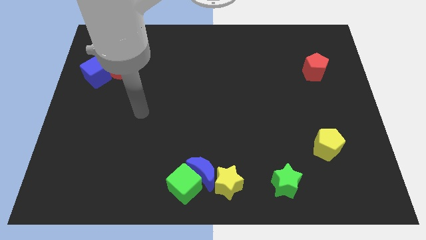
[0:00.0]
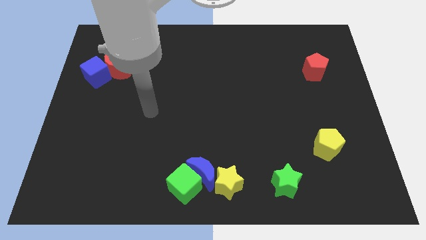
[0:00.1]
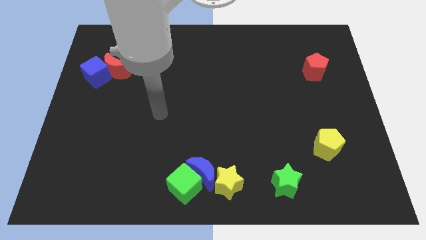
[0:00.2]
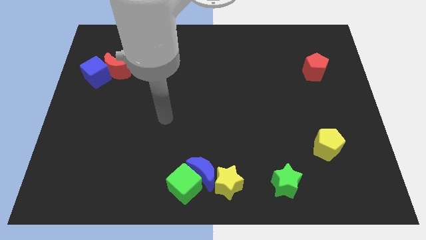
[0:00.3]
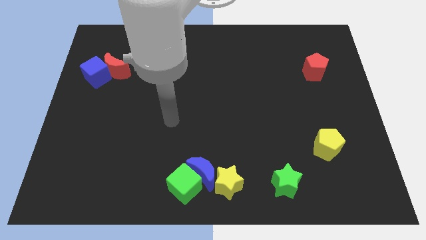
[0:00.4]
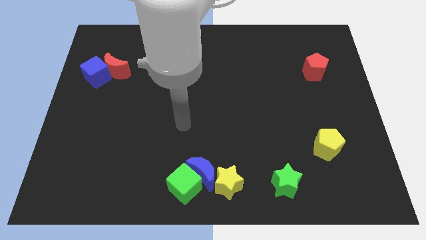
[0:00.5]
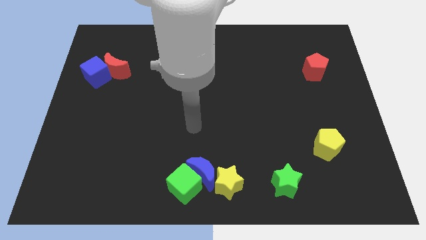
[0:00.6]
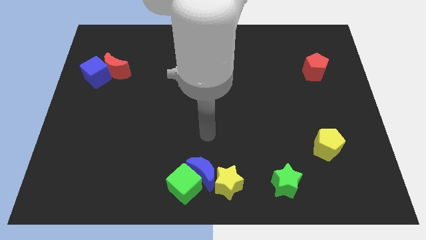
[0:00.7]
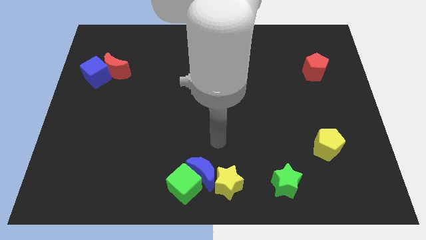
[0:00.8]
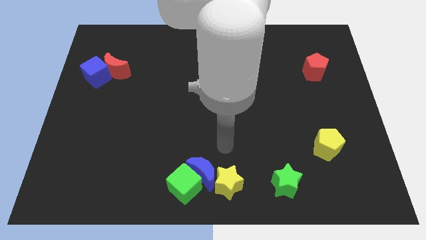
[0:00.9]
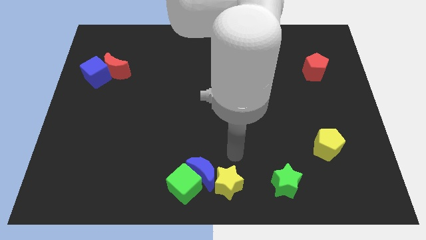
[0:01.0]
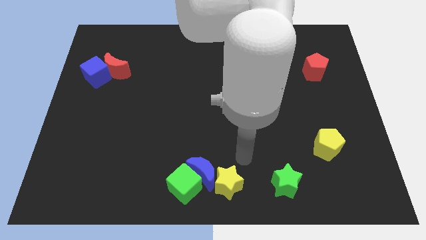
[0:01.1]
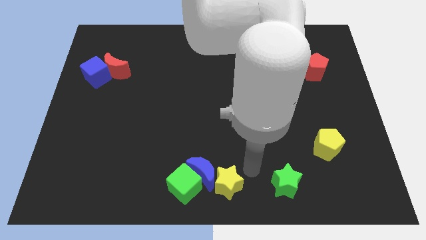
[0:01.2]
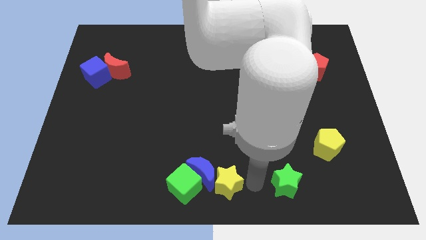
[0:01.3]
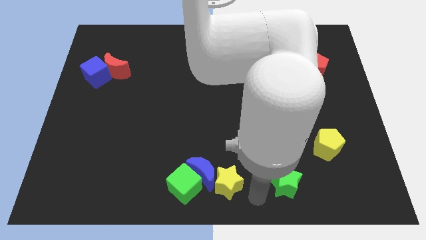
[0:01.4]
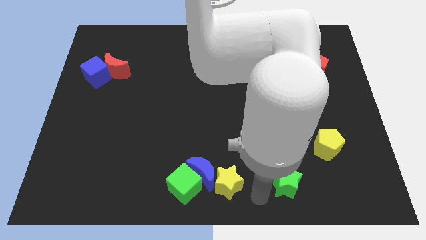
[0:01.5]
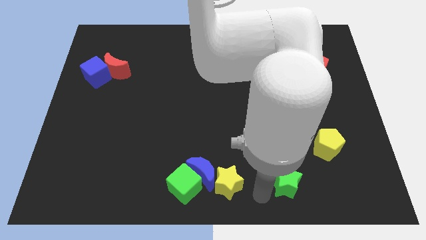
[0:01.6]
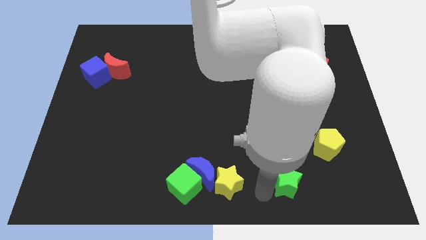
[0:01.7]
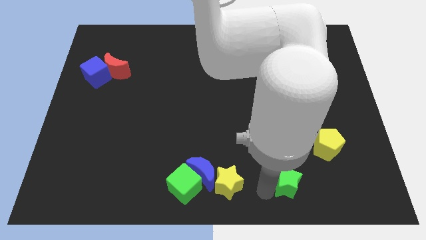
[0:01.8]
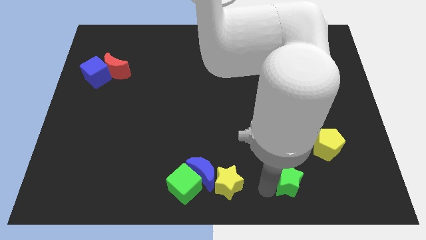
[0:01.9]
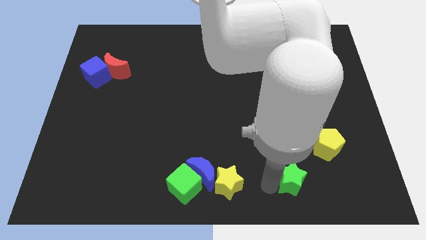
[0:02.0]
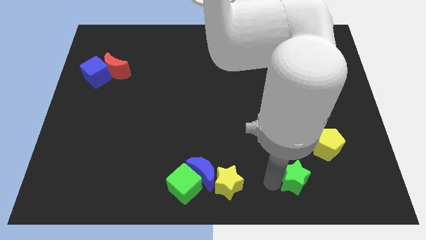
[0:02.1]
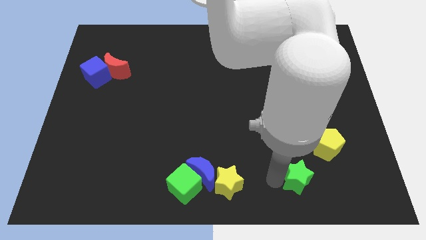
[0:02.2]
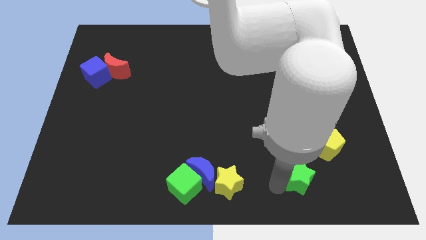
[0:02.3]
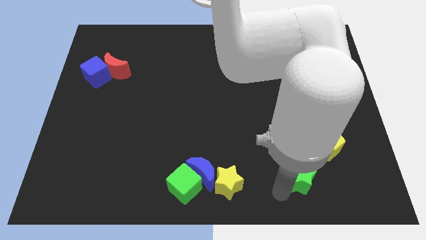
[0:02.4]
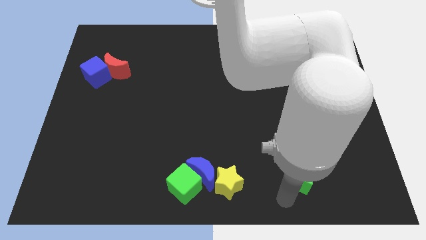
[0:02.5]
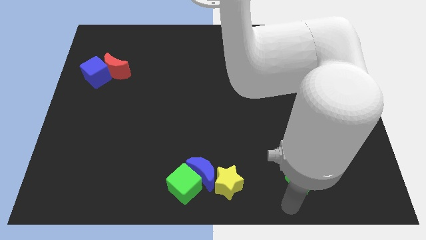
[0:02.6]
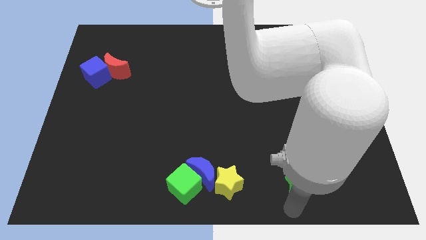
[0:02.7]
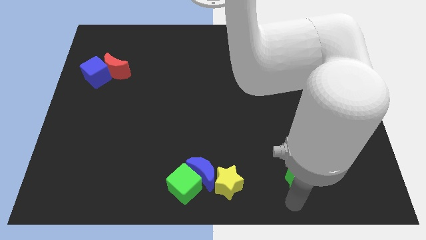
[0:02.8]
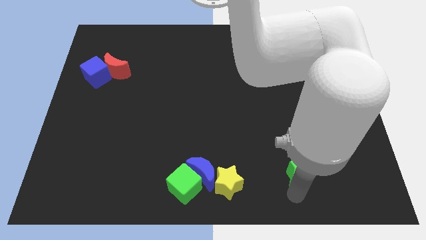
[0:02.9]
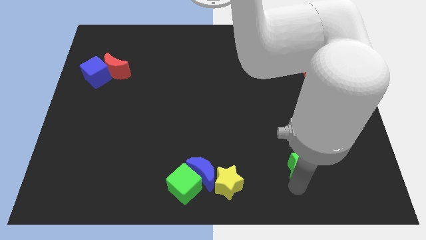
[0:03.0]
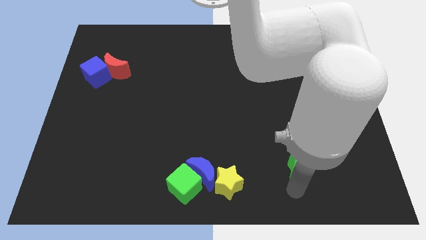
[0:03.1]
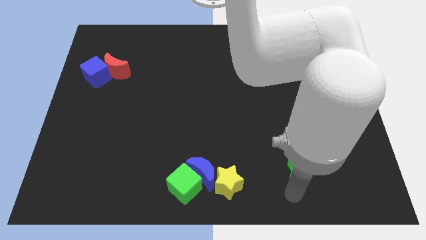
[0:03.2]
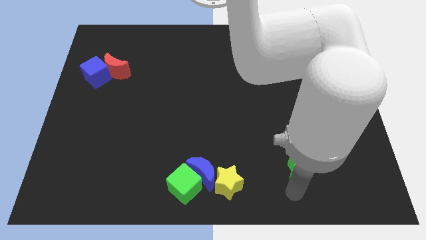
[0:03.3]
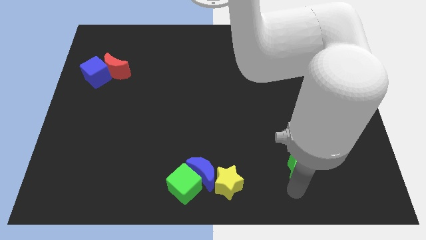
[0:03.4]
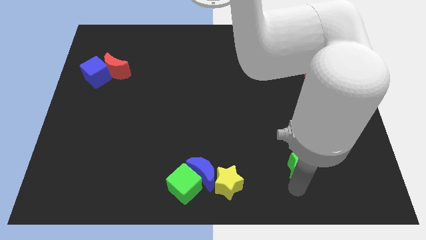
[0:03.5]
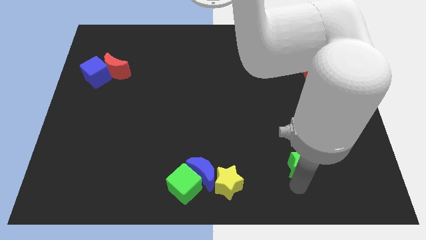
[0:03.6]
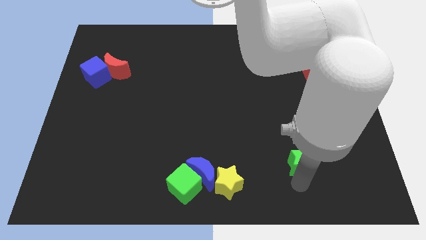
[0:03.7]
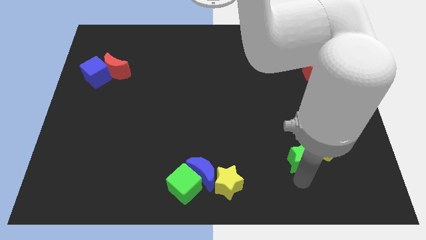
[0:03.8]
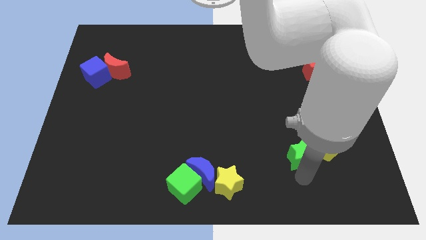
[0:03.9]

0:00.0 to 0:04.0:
move the green star somewhat upwards and right

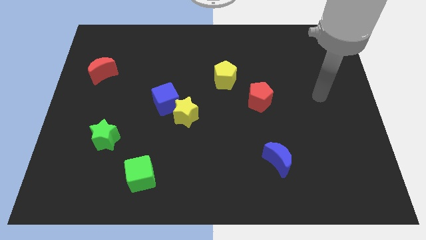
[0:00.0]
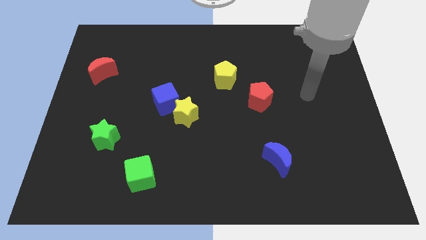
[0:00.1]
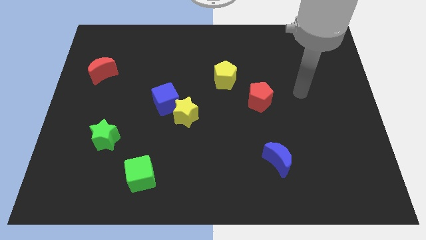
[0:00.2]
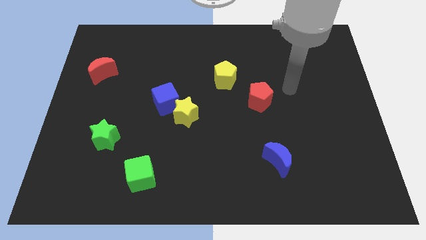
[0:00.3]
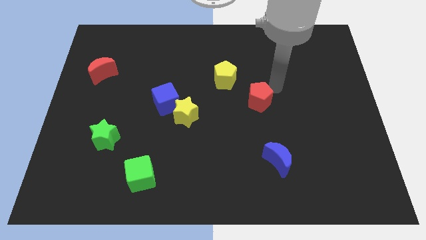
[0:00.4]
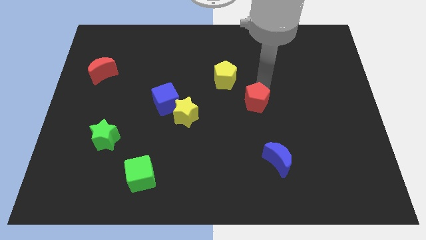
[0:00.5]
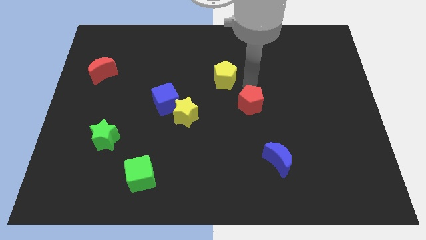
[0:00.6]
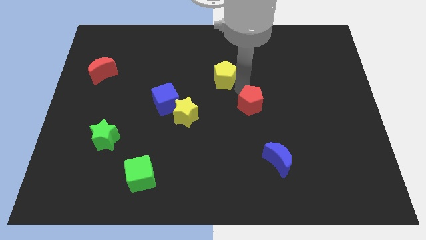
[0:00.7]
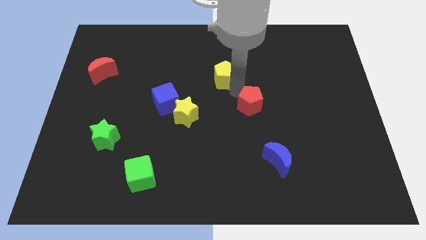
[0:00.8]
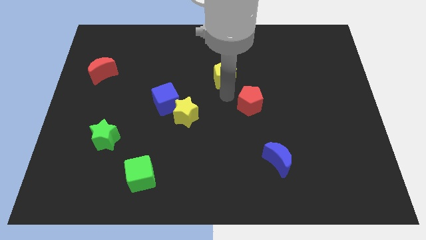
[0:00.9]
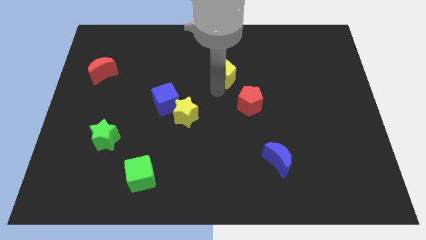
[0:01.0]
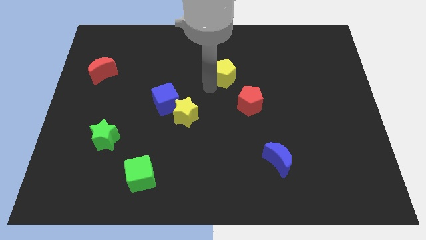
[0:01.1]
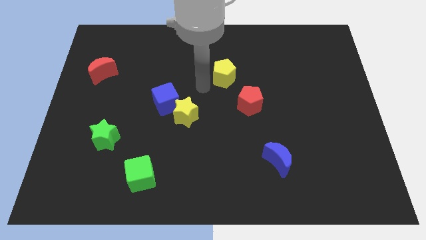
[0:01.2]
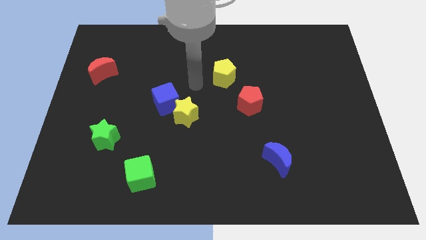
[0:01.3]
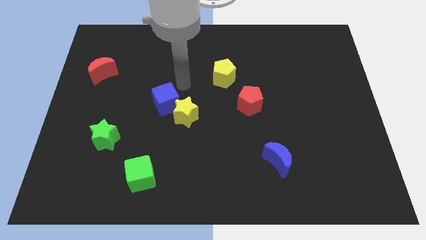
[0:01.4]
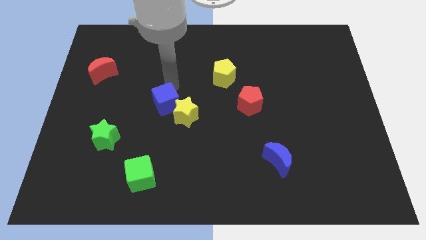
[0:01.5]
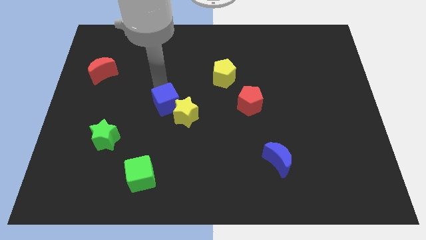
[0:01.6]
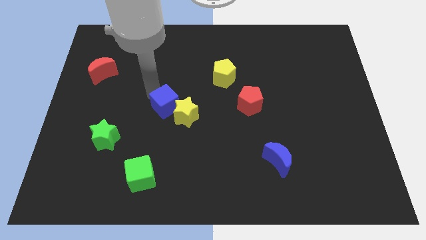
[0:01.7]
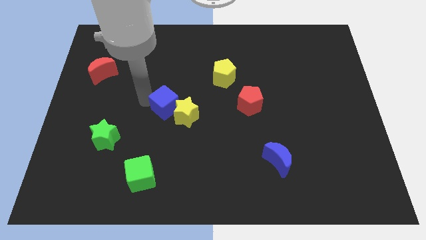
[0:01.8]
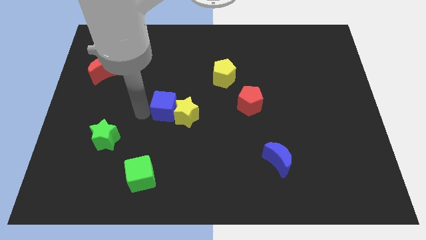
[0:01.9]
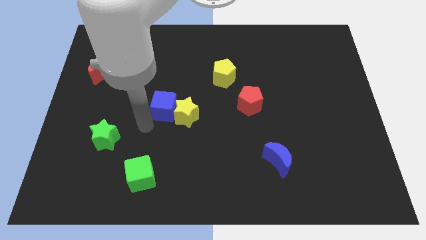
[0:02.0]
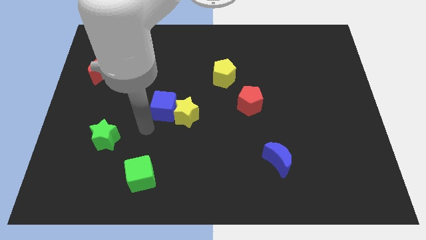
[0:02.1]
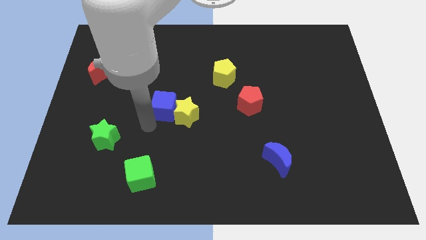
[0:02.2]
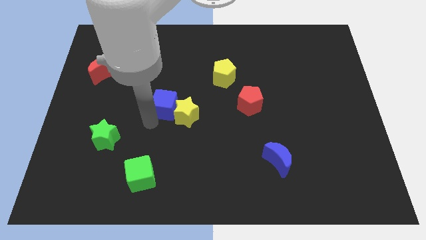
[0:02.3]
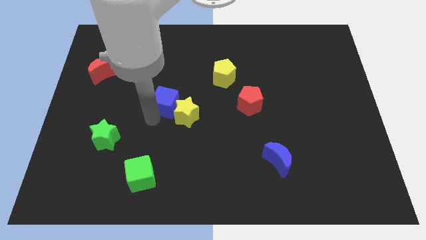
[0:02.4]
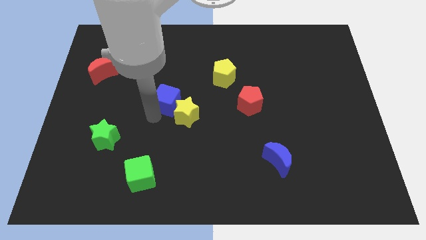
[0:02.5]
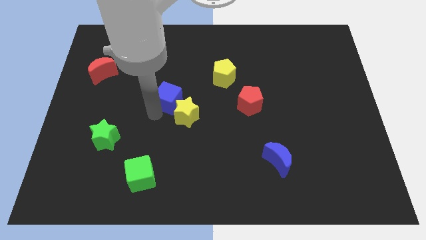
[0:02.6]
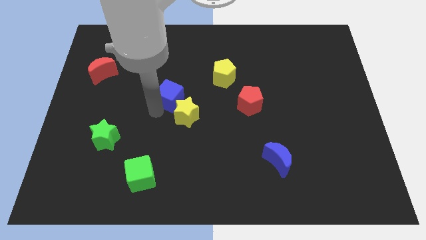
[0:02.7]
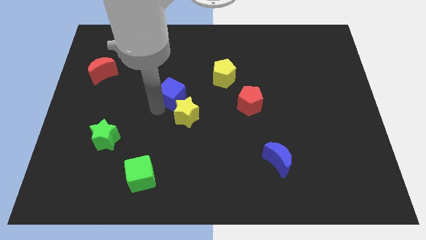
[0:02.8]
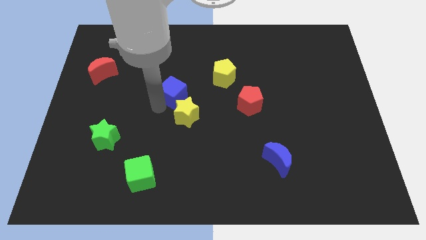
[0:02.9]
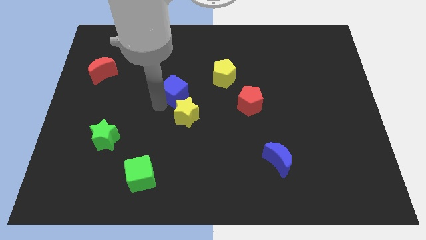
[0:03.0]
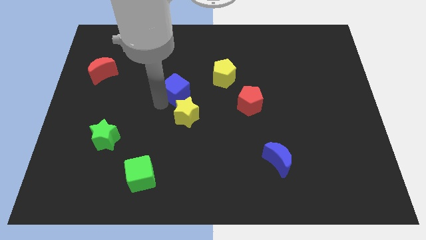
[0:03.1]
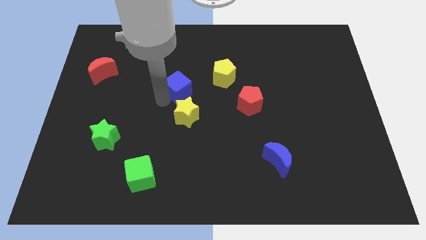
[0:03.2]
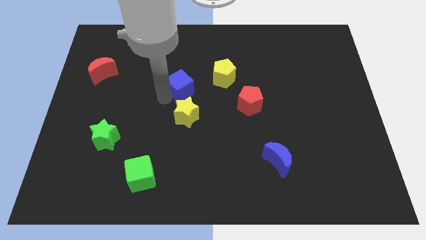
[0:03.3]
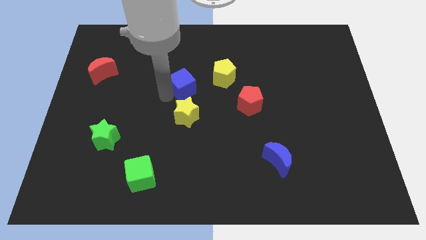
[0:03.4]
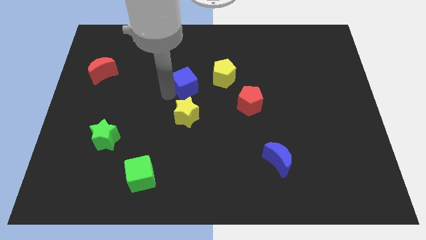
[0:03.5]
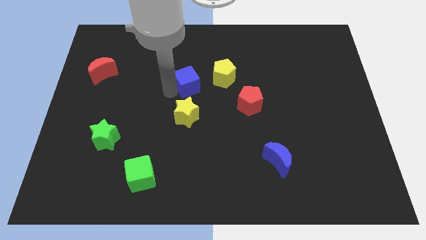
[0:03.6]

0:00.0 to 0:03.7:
slide the blue cube somewhat up and then to the right

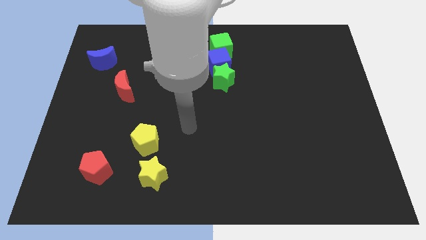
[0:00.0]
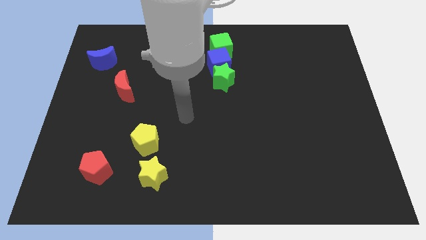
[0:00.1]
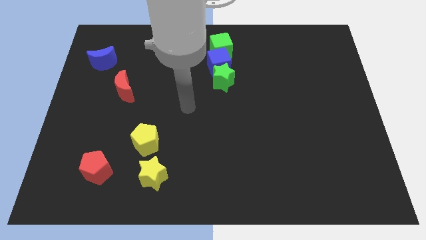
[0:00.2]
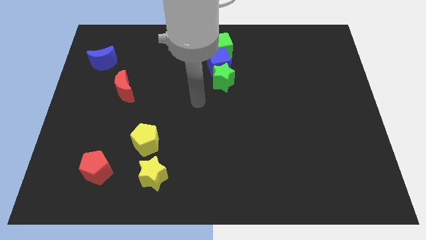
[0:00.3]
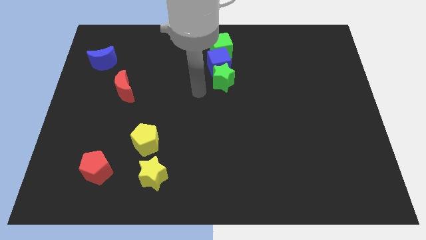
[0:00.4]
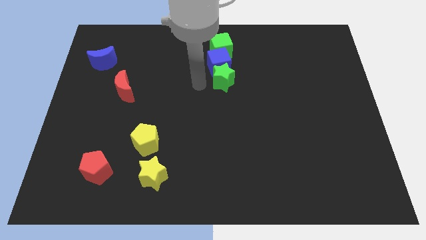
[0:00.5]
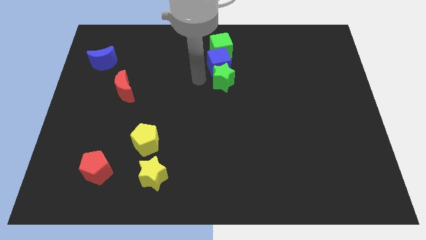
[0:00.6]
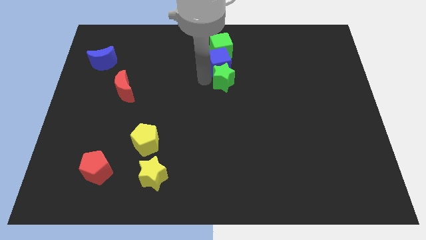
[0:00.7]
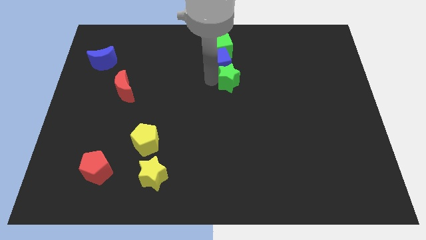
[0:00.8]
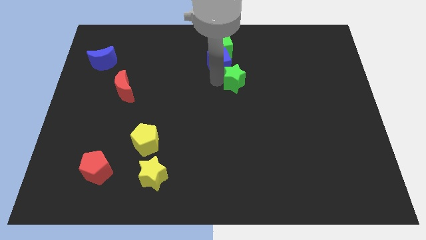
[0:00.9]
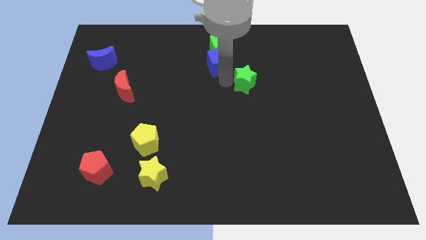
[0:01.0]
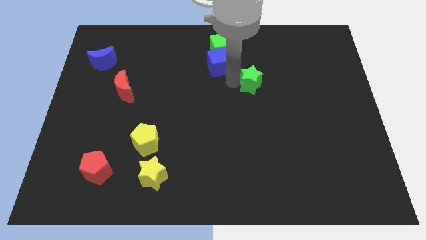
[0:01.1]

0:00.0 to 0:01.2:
push the green star right slightly
